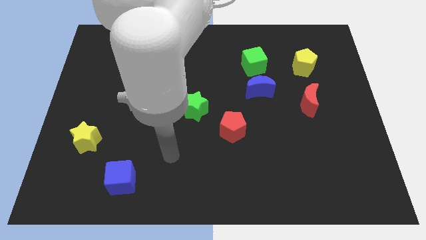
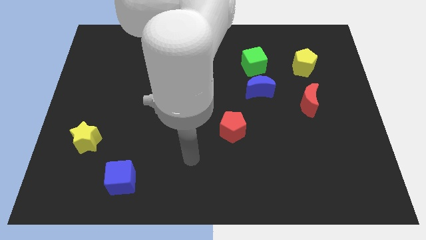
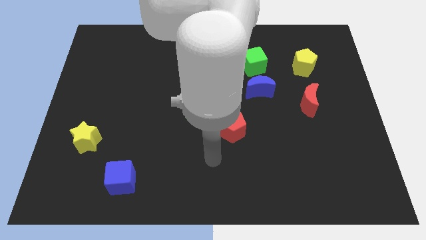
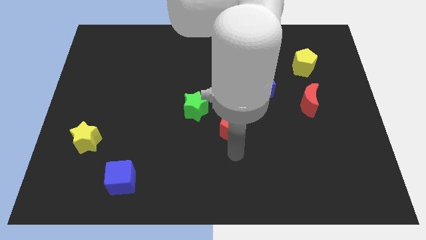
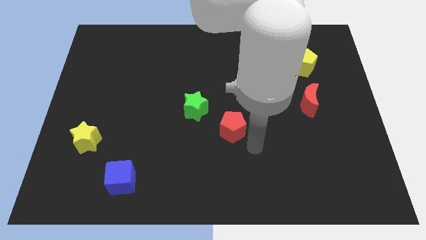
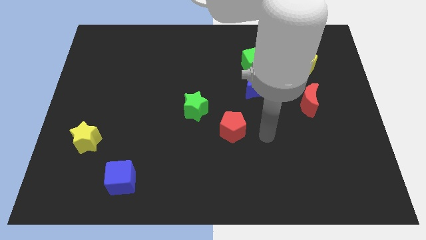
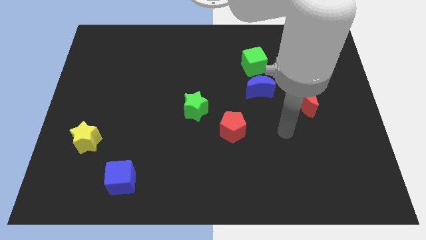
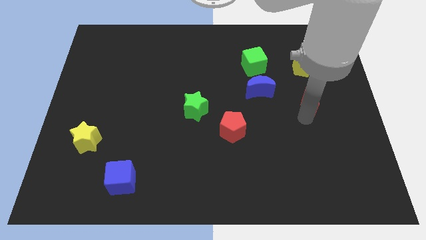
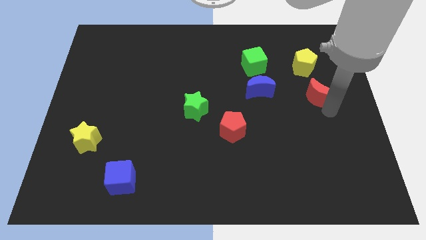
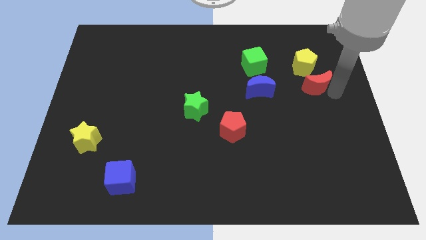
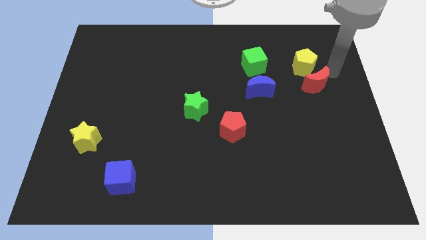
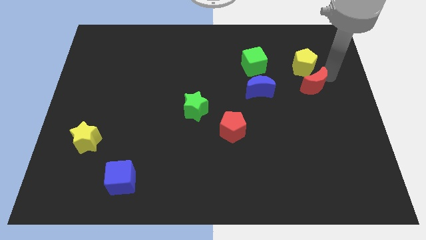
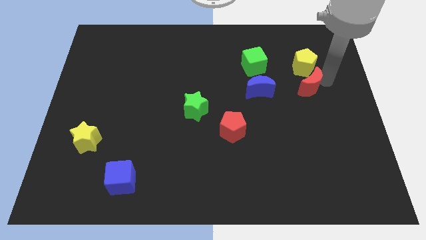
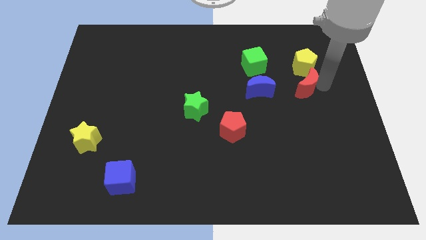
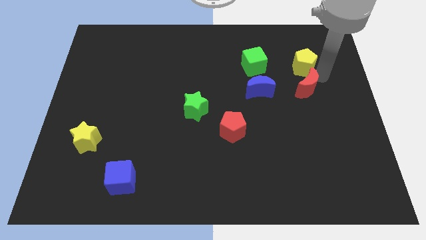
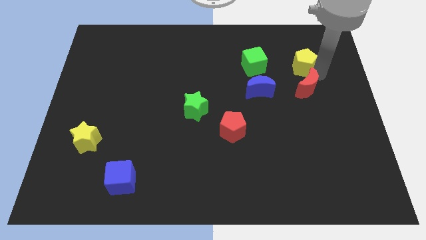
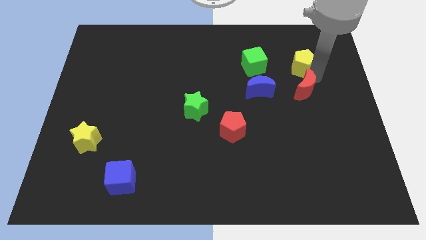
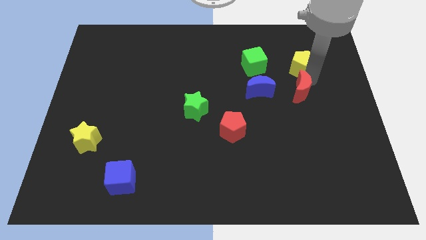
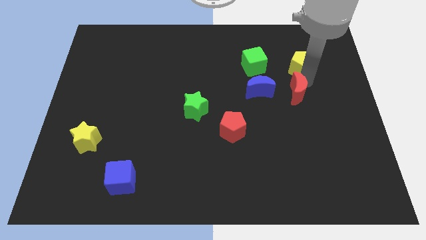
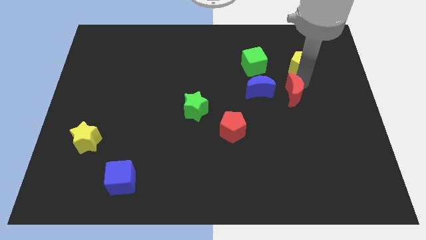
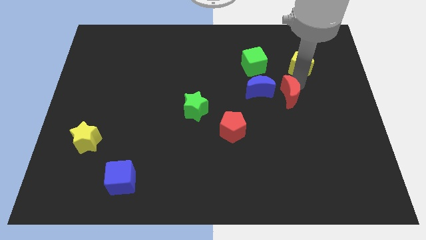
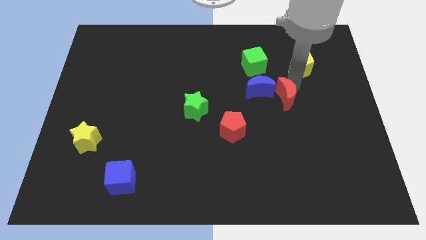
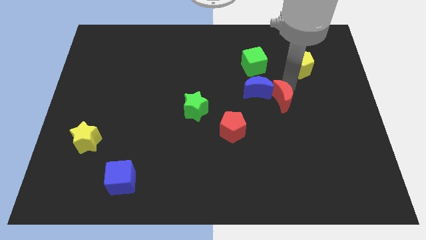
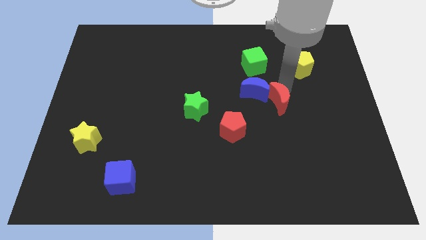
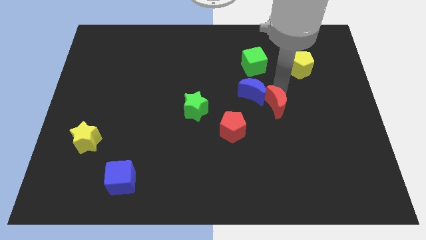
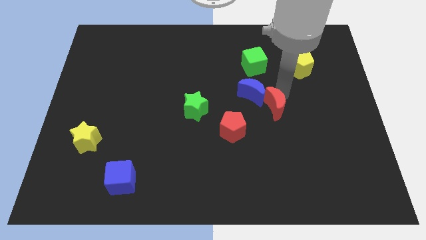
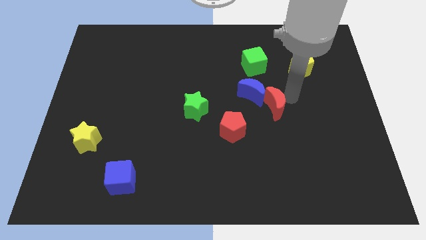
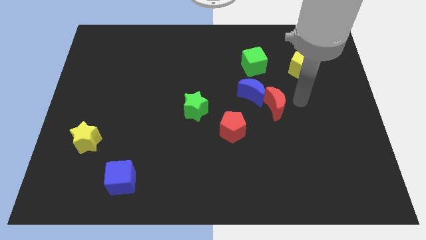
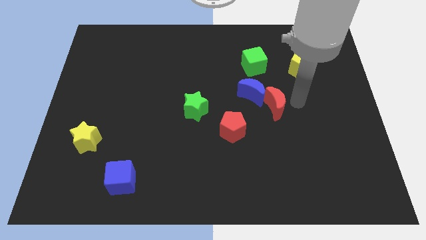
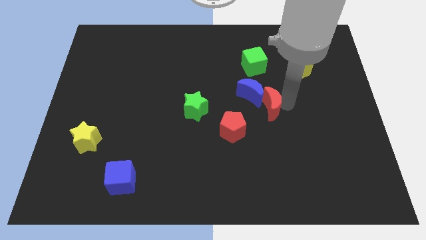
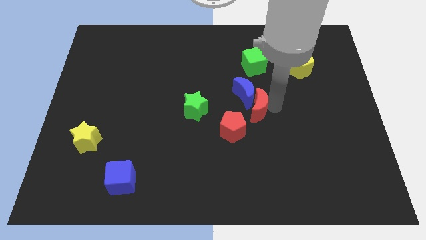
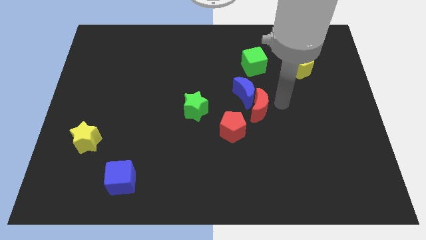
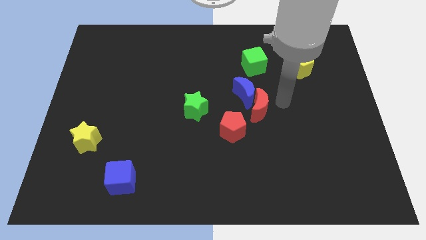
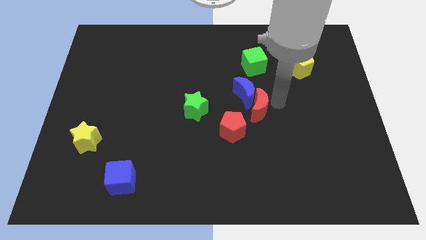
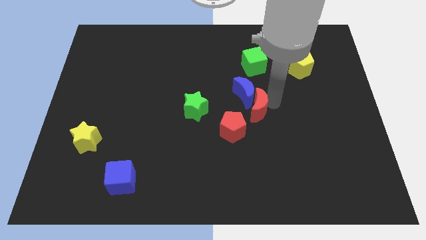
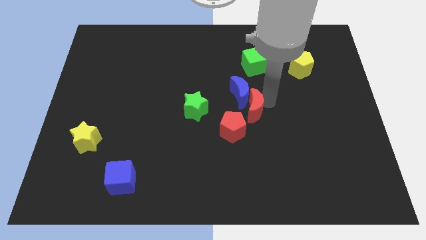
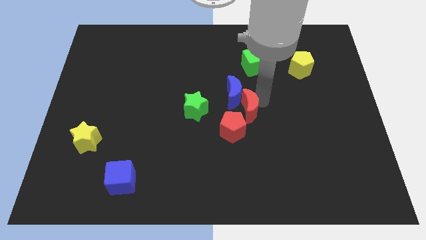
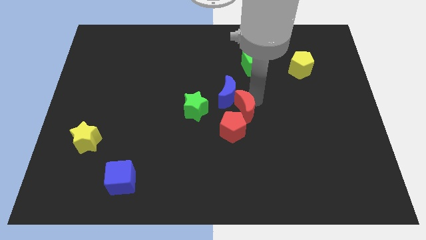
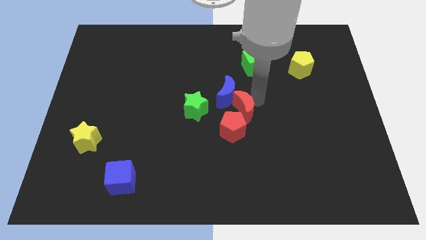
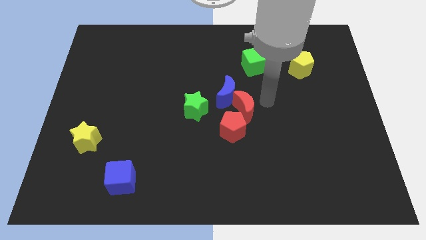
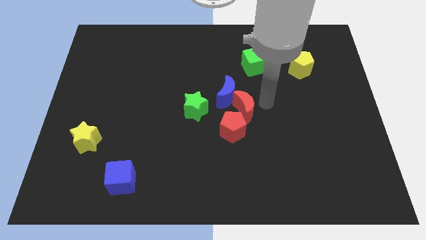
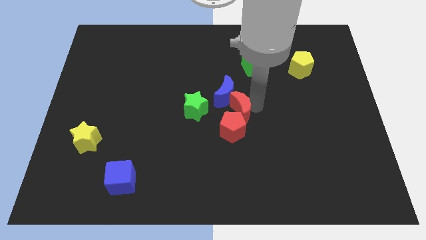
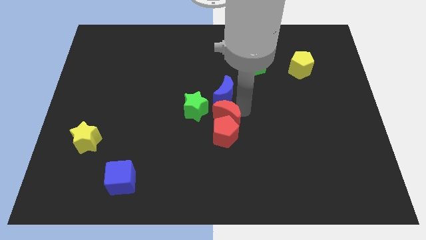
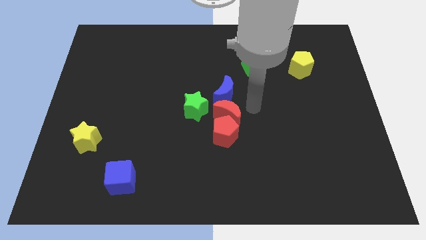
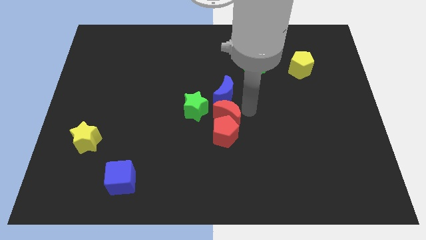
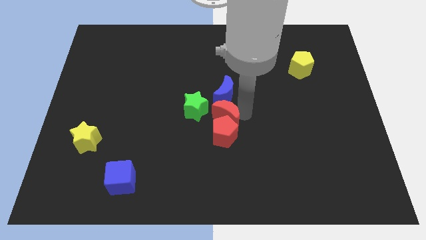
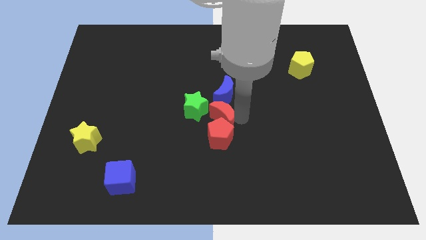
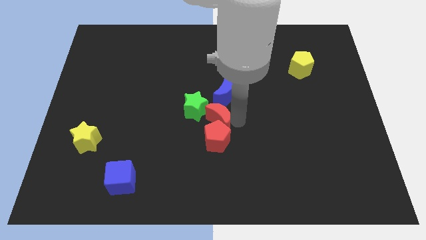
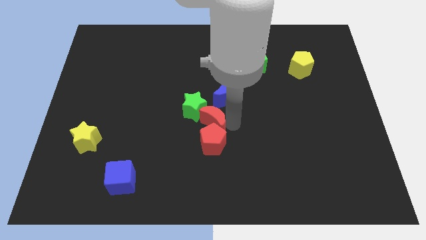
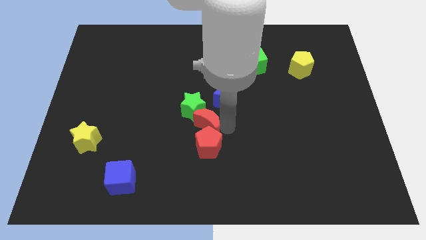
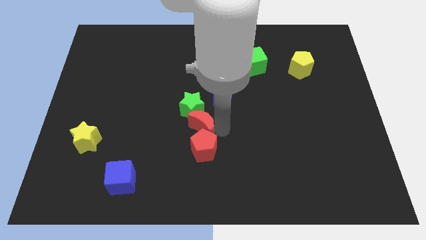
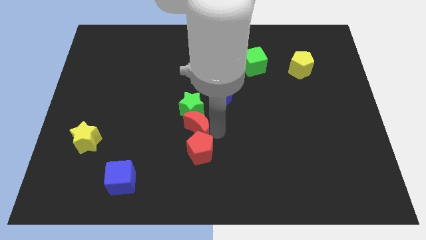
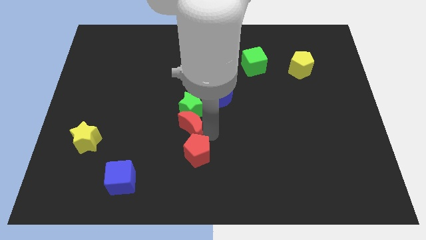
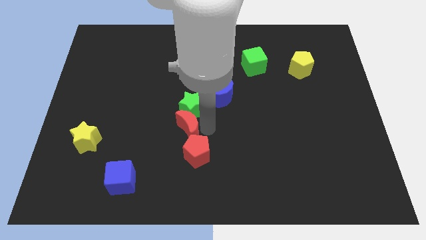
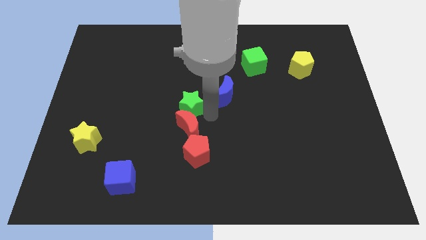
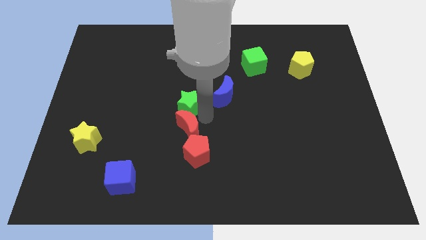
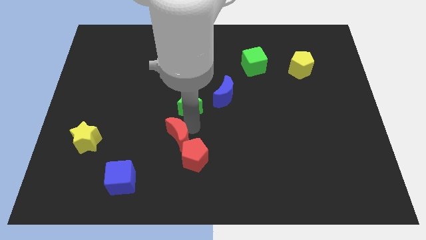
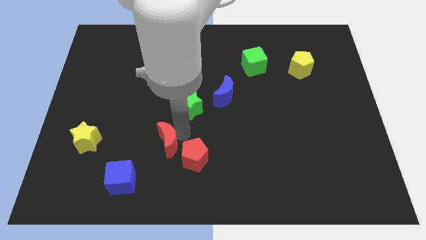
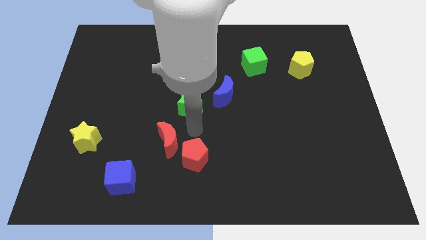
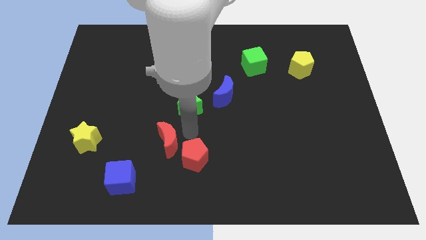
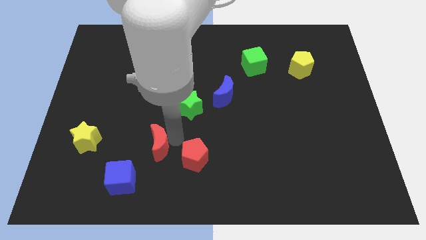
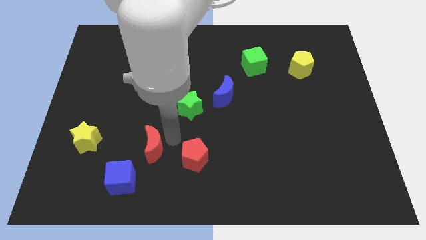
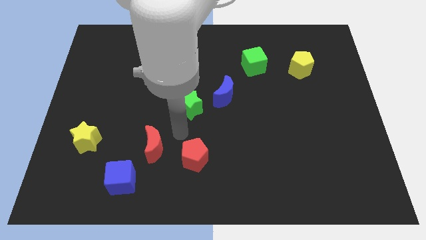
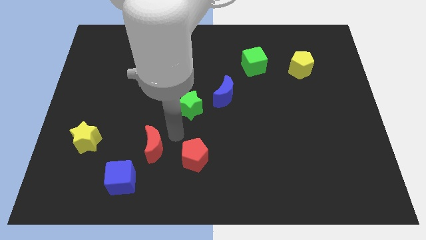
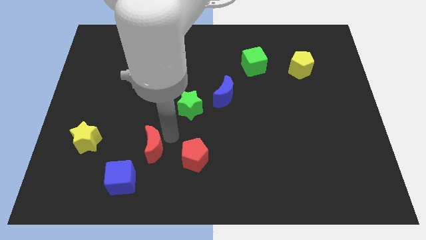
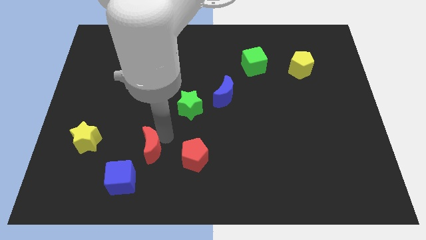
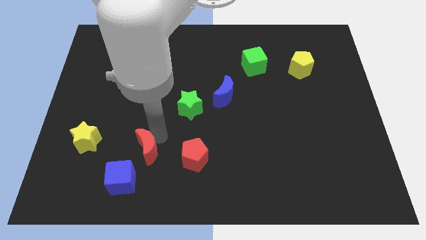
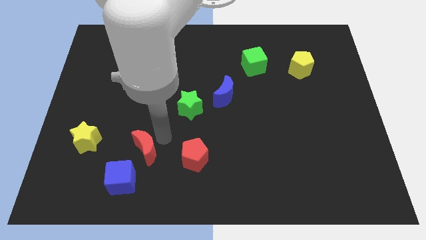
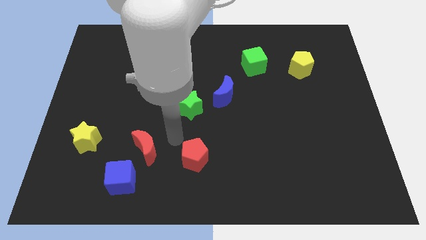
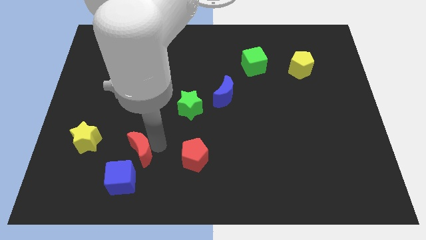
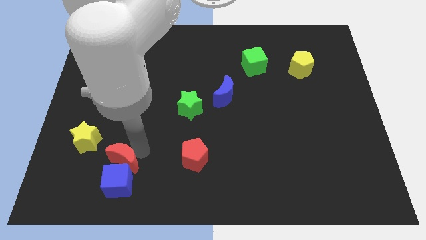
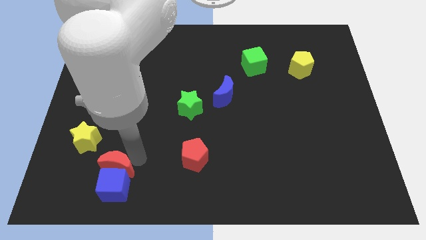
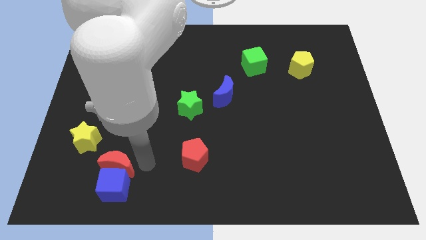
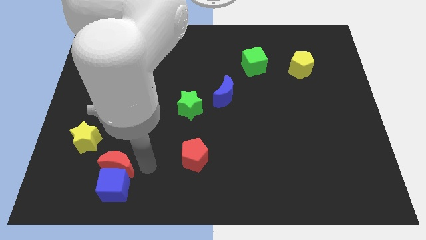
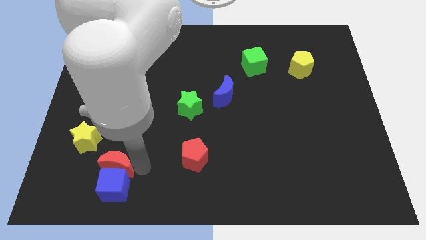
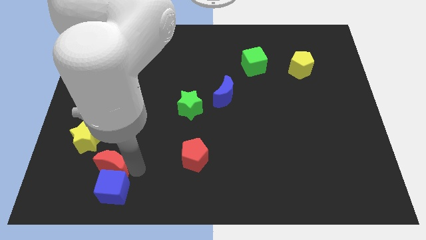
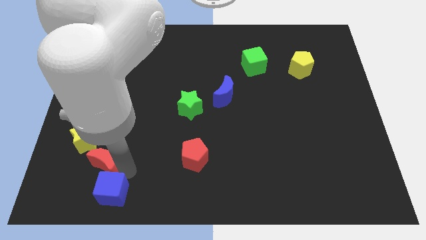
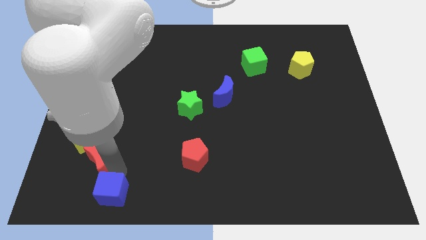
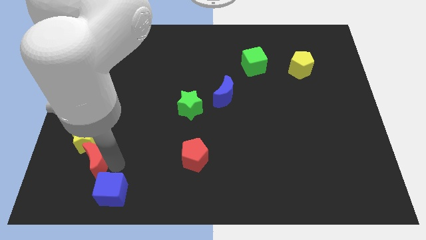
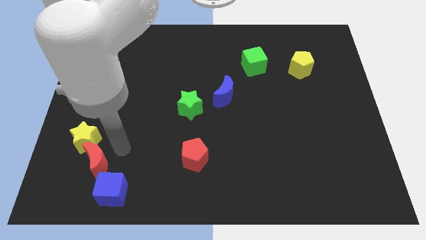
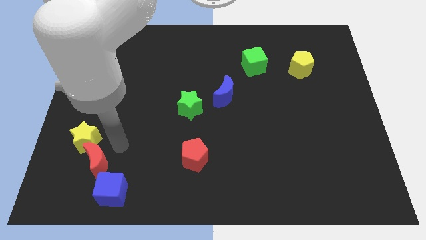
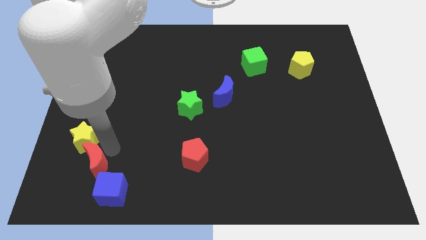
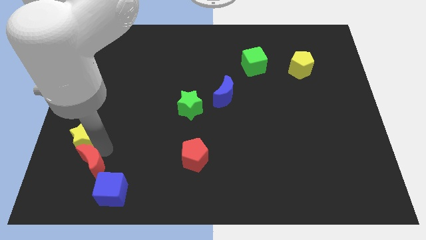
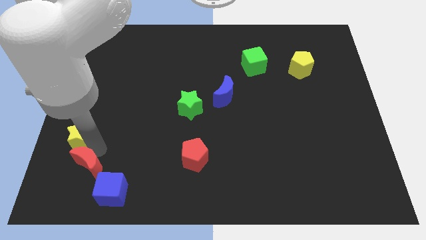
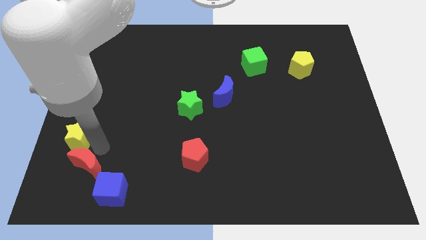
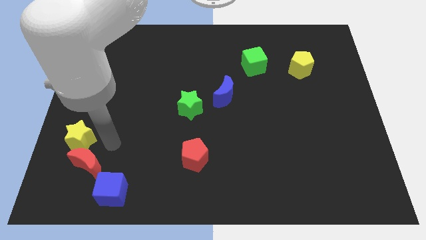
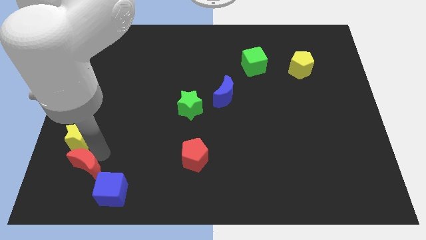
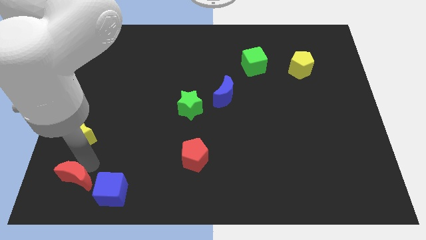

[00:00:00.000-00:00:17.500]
push the red moon to the lower left corner
